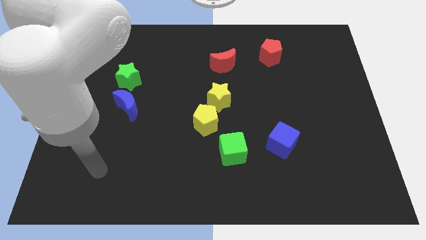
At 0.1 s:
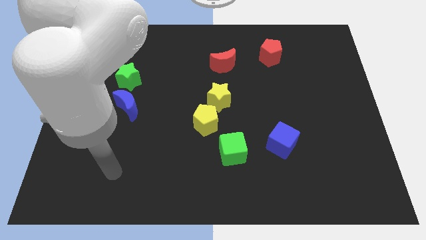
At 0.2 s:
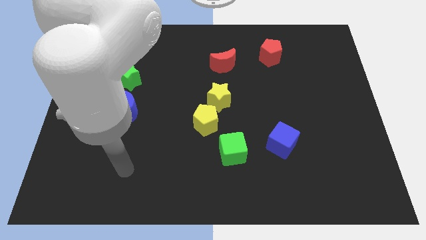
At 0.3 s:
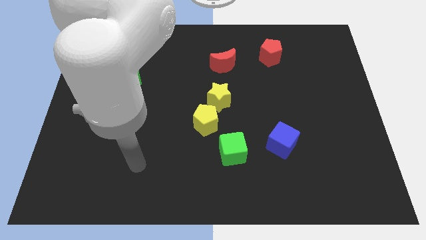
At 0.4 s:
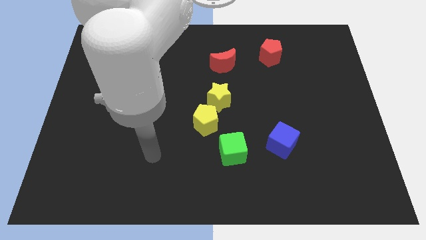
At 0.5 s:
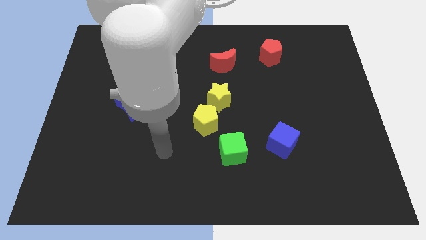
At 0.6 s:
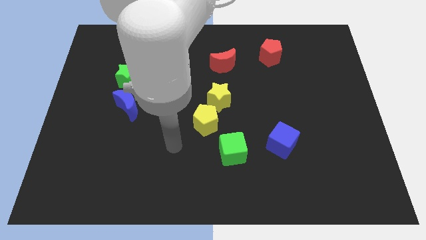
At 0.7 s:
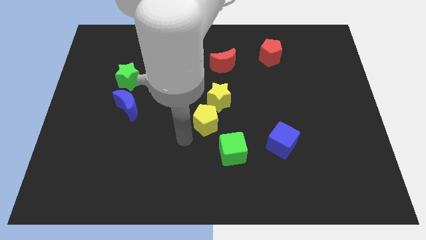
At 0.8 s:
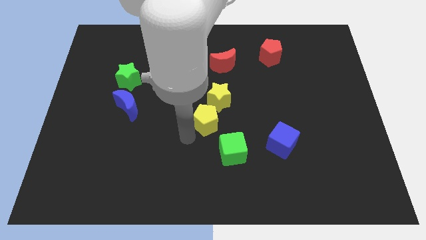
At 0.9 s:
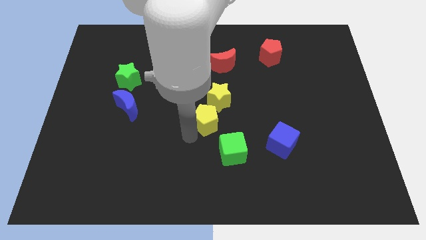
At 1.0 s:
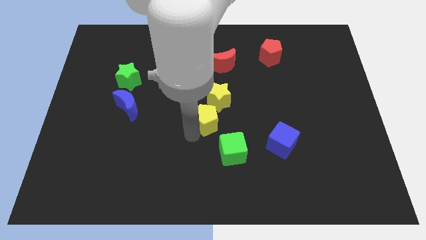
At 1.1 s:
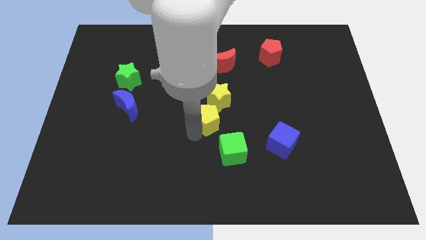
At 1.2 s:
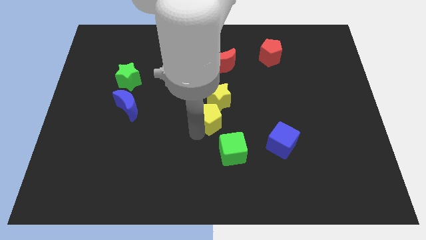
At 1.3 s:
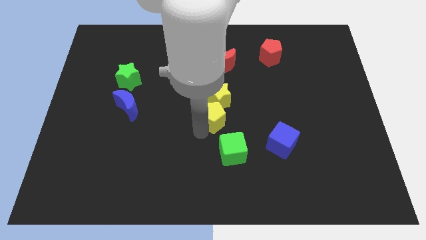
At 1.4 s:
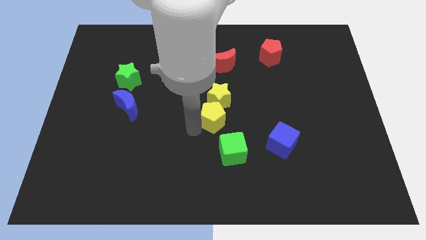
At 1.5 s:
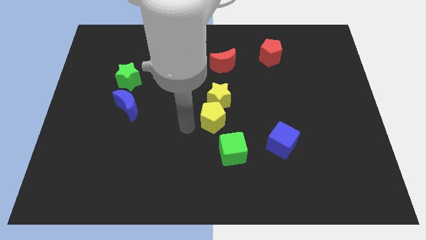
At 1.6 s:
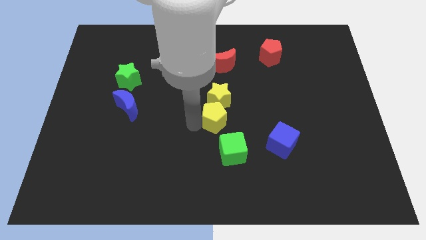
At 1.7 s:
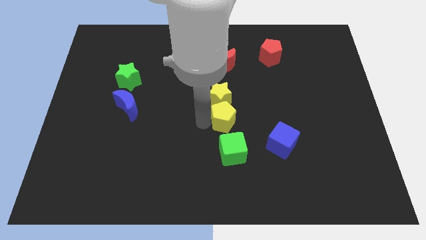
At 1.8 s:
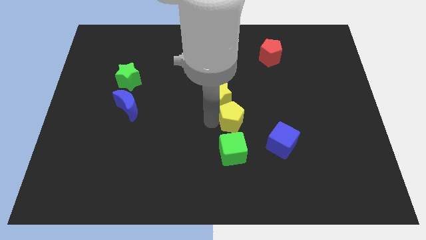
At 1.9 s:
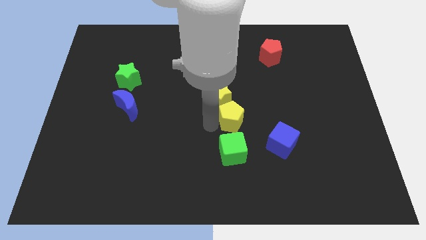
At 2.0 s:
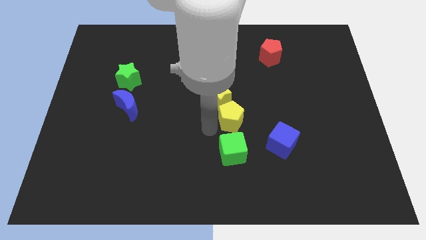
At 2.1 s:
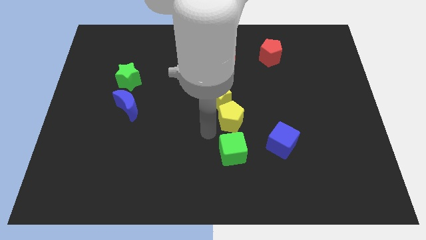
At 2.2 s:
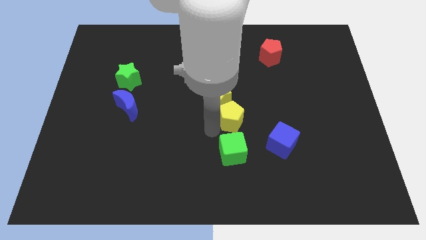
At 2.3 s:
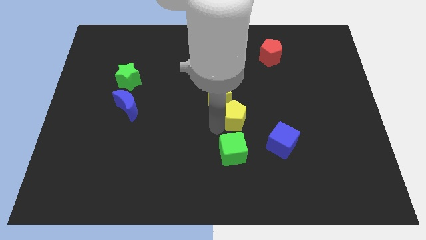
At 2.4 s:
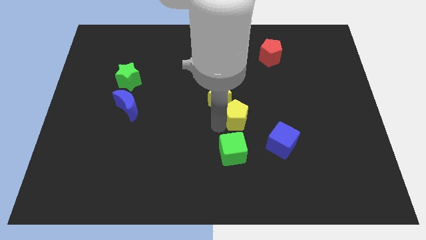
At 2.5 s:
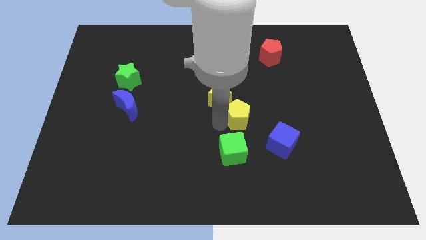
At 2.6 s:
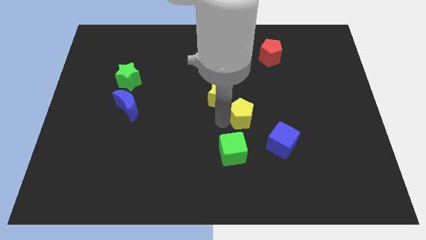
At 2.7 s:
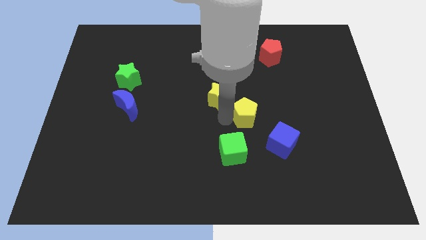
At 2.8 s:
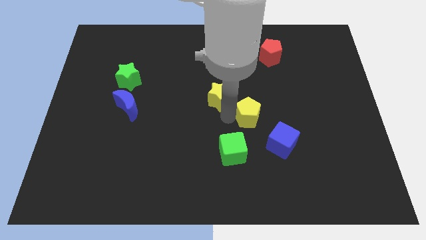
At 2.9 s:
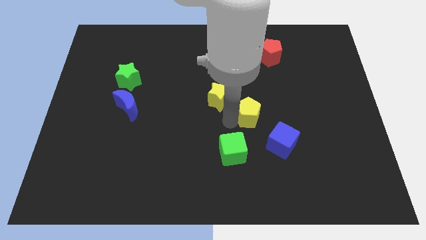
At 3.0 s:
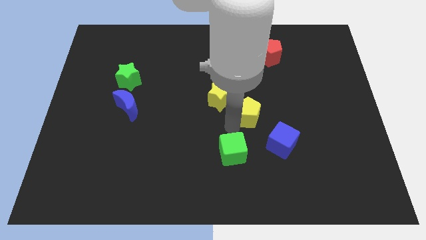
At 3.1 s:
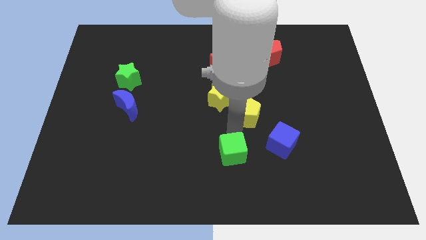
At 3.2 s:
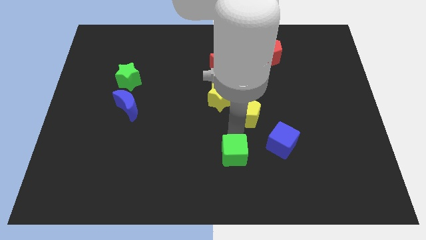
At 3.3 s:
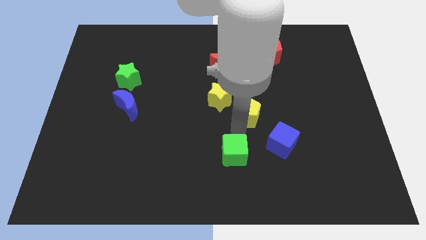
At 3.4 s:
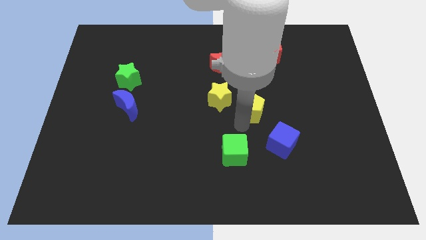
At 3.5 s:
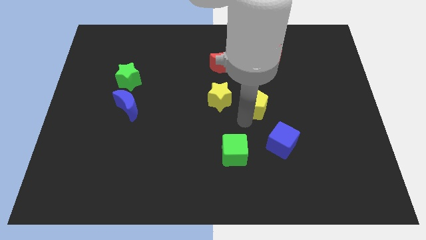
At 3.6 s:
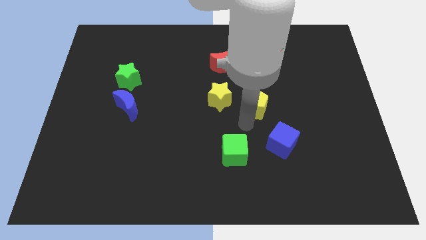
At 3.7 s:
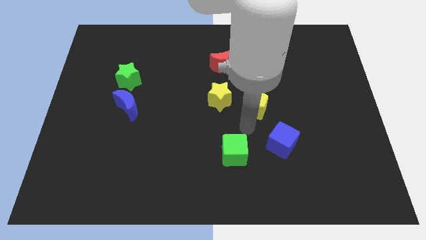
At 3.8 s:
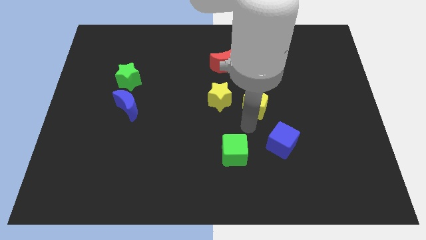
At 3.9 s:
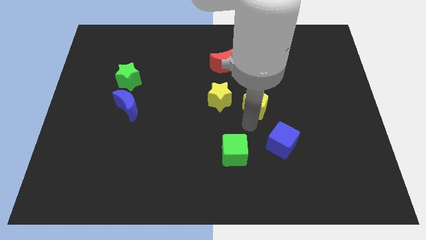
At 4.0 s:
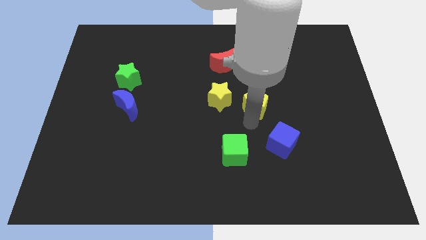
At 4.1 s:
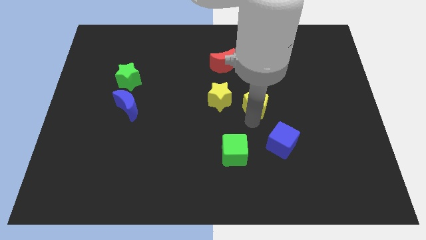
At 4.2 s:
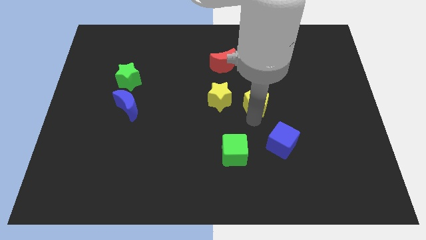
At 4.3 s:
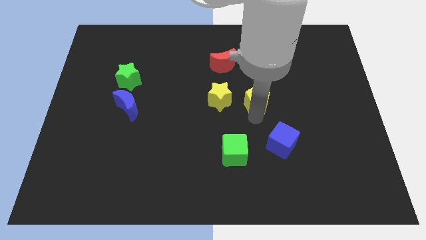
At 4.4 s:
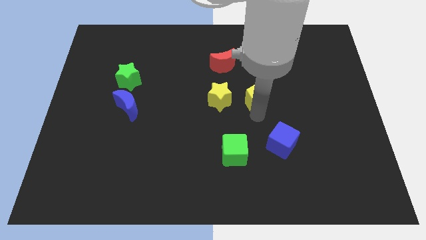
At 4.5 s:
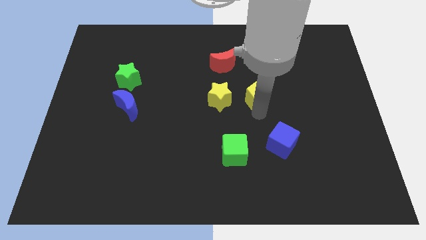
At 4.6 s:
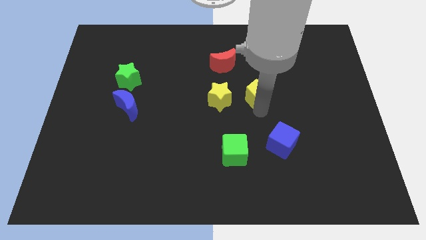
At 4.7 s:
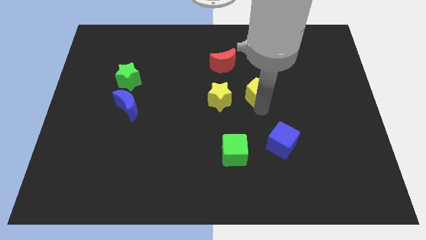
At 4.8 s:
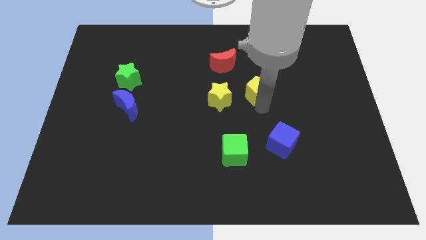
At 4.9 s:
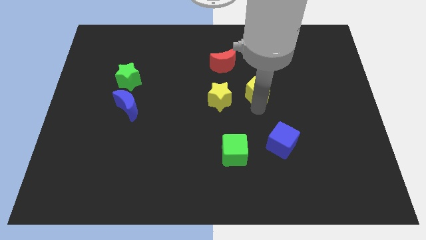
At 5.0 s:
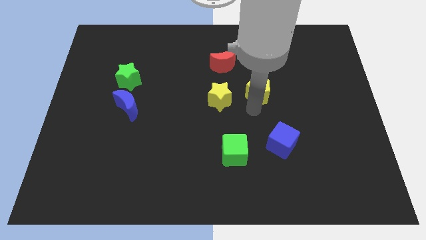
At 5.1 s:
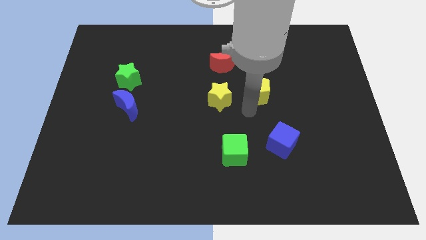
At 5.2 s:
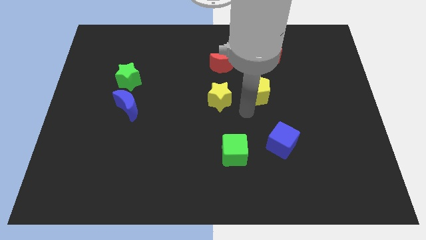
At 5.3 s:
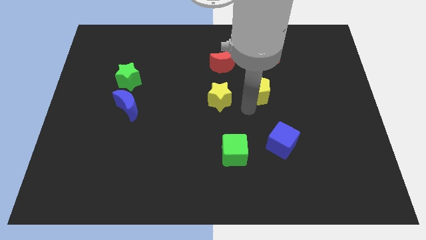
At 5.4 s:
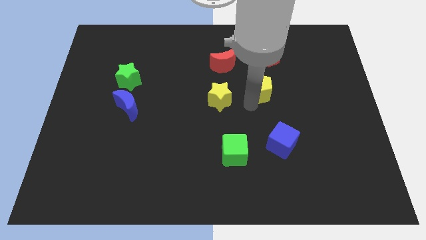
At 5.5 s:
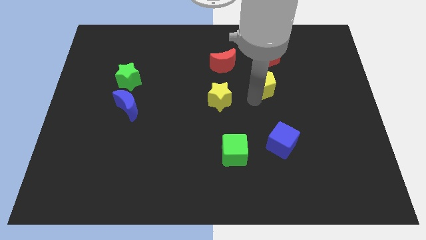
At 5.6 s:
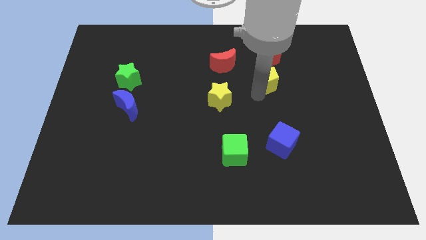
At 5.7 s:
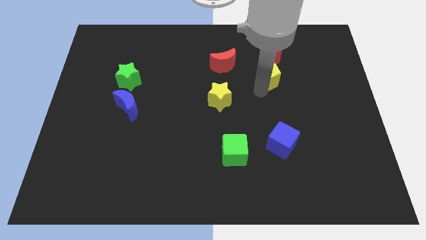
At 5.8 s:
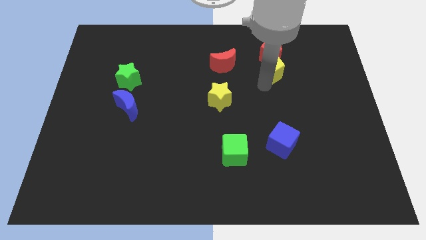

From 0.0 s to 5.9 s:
put the yellow pentagon close to the red pentagon

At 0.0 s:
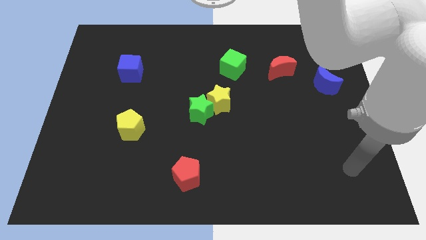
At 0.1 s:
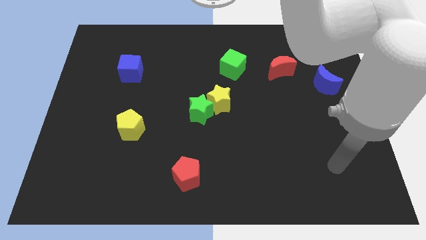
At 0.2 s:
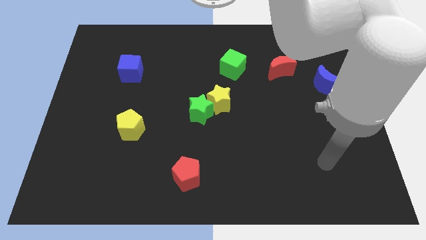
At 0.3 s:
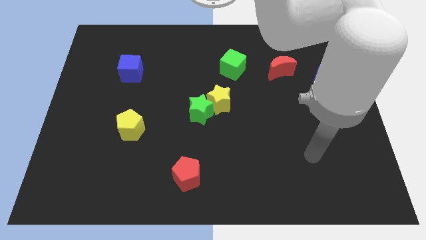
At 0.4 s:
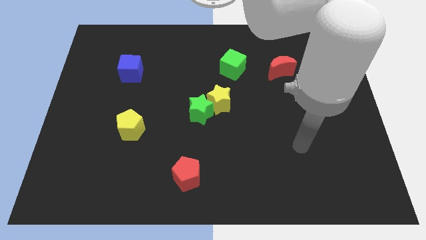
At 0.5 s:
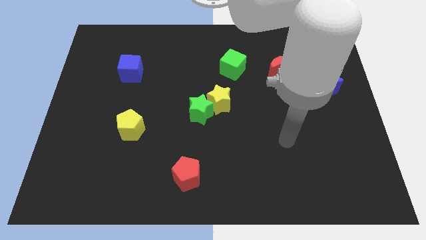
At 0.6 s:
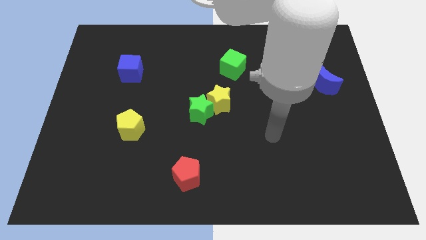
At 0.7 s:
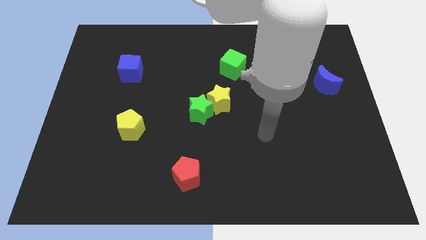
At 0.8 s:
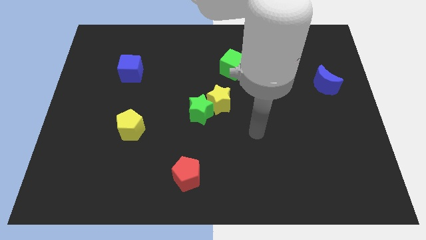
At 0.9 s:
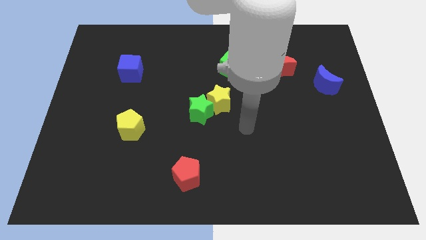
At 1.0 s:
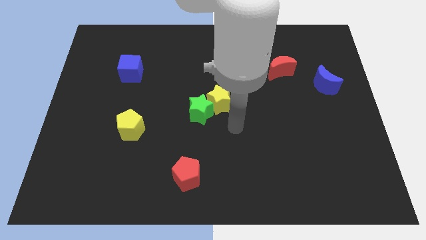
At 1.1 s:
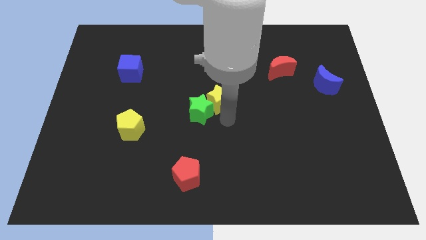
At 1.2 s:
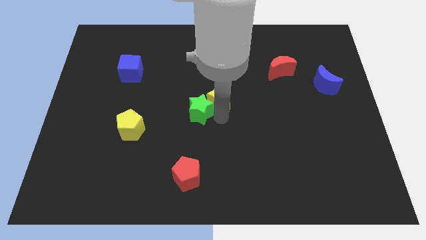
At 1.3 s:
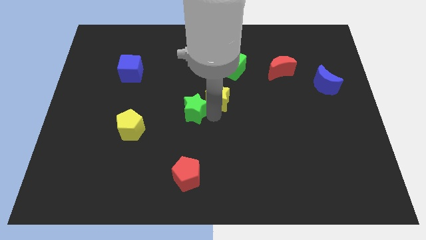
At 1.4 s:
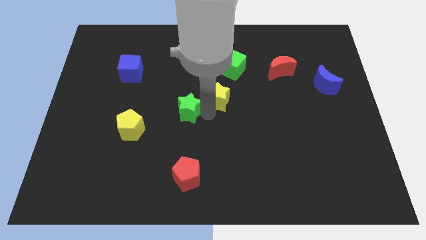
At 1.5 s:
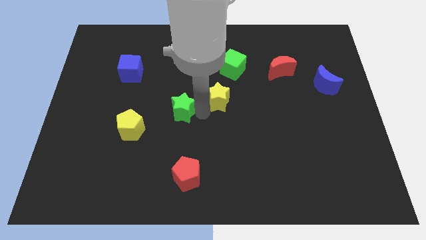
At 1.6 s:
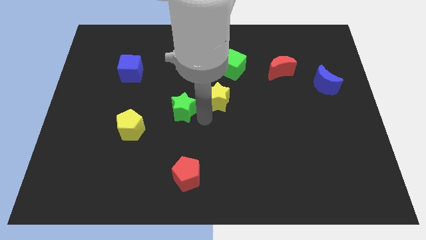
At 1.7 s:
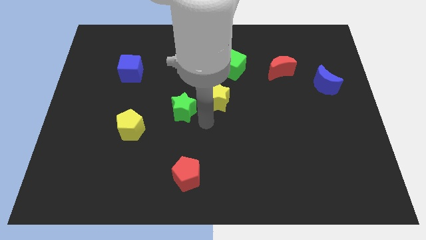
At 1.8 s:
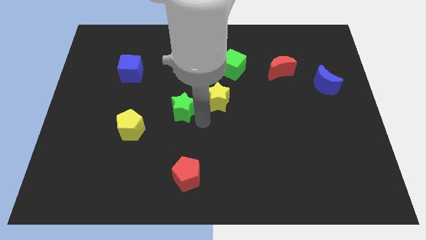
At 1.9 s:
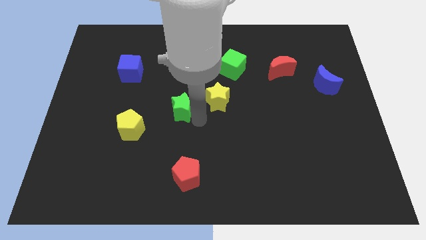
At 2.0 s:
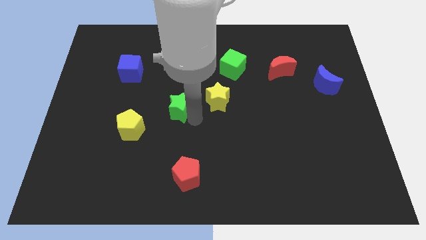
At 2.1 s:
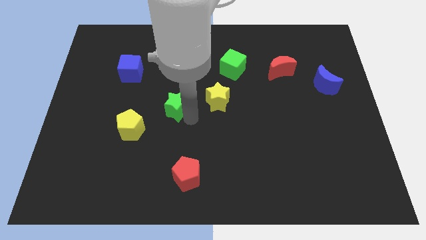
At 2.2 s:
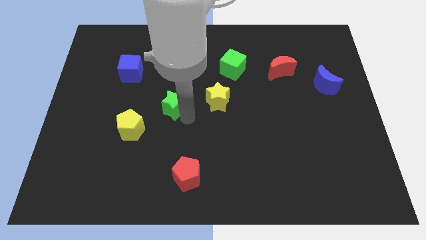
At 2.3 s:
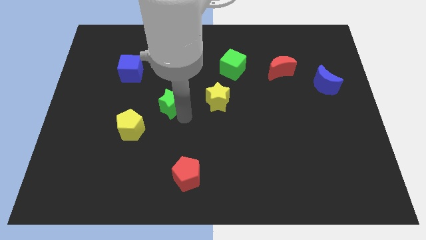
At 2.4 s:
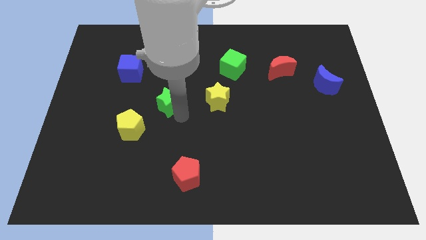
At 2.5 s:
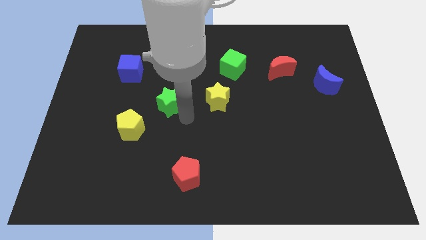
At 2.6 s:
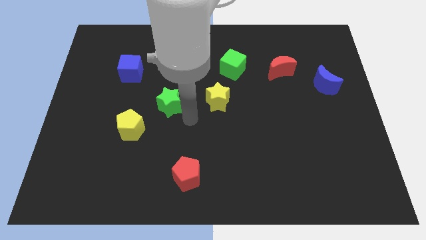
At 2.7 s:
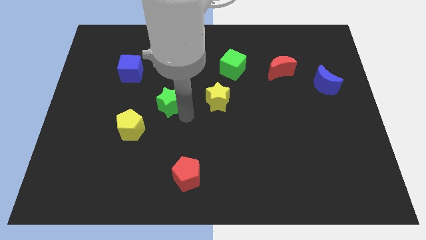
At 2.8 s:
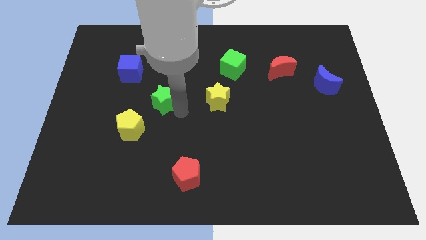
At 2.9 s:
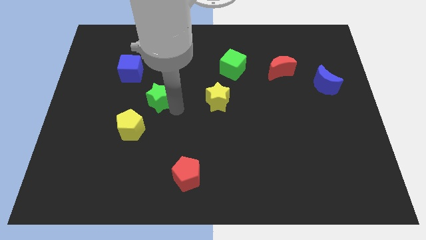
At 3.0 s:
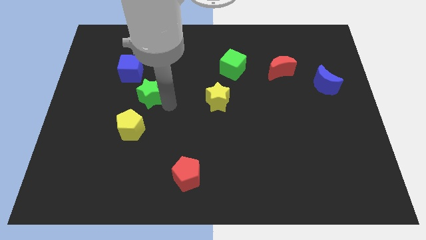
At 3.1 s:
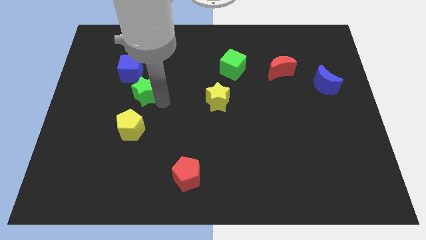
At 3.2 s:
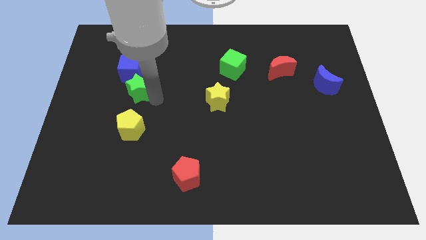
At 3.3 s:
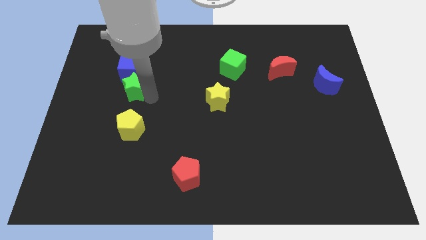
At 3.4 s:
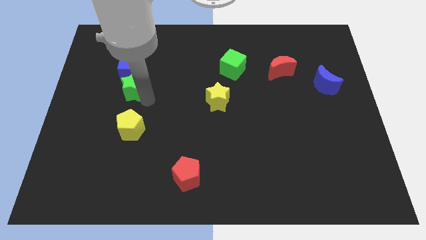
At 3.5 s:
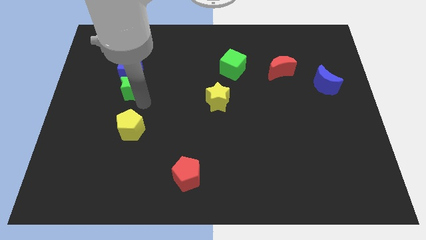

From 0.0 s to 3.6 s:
move the green star to the blue cube
